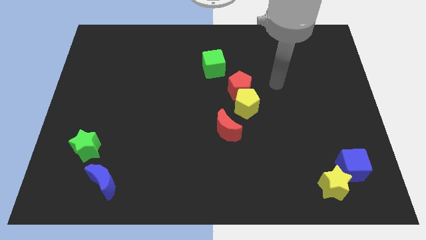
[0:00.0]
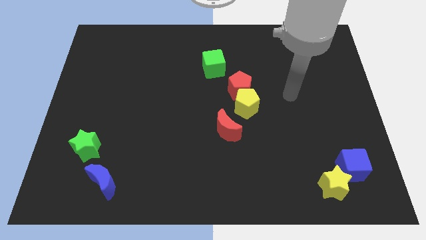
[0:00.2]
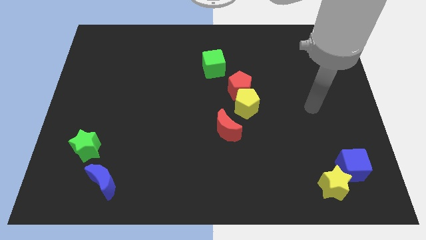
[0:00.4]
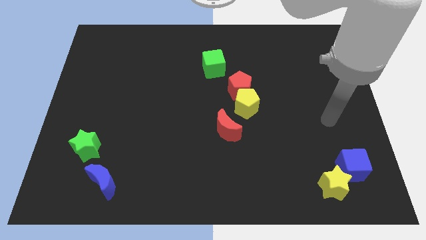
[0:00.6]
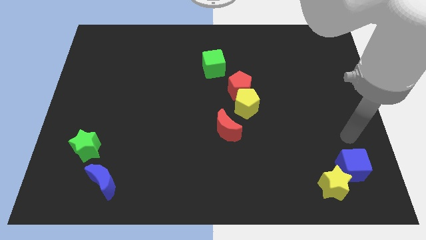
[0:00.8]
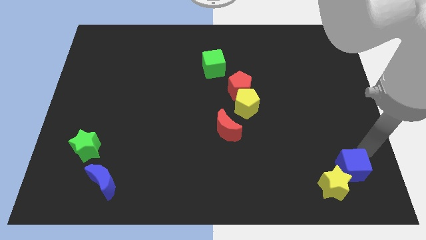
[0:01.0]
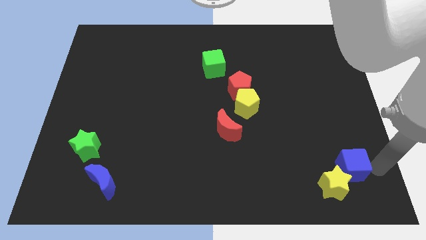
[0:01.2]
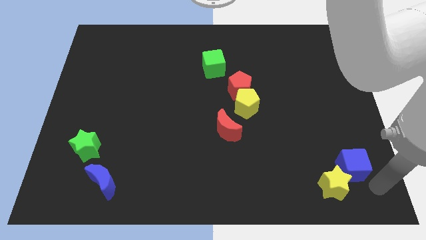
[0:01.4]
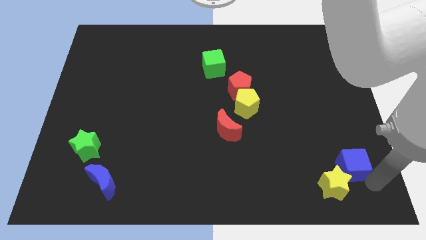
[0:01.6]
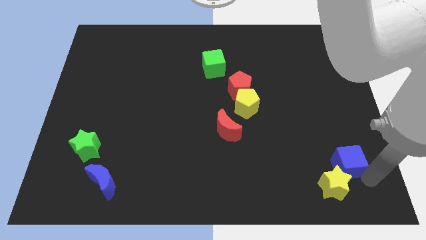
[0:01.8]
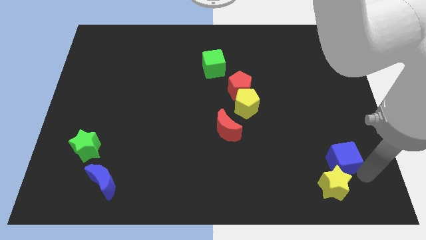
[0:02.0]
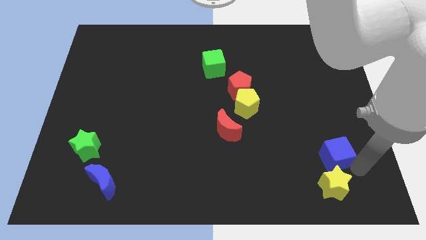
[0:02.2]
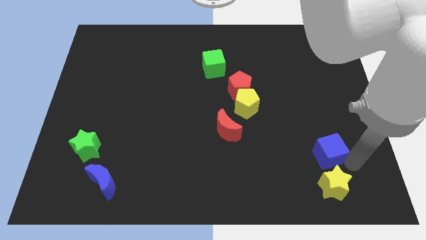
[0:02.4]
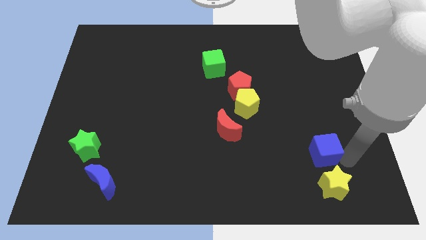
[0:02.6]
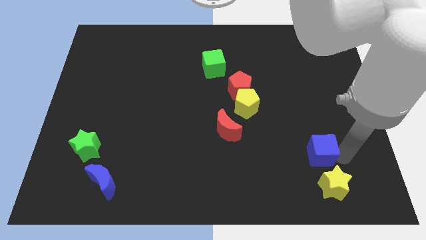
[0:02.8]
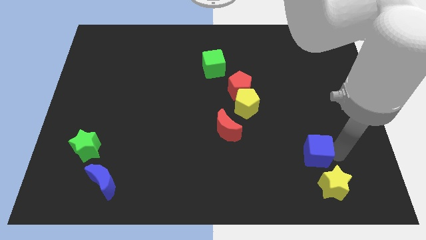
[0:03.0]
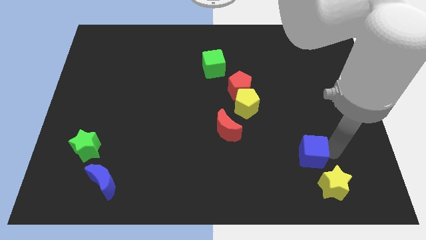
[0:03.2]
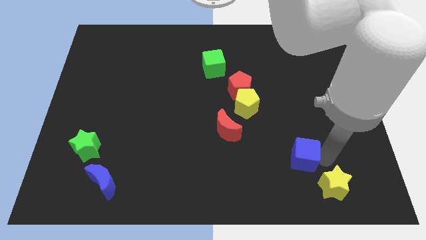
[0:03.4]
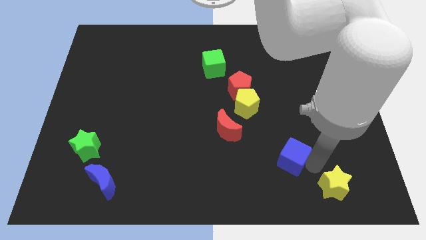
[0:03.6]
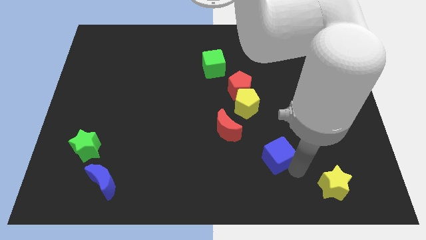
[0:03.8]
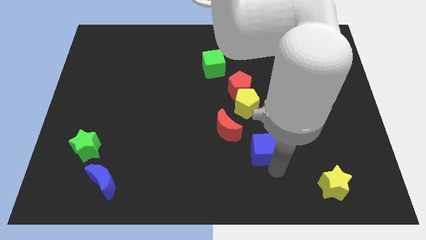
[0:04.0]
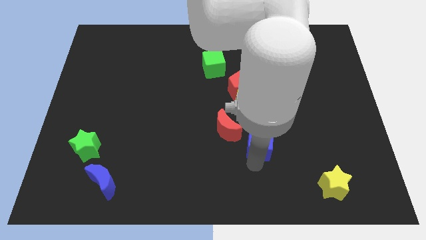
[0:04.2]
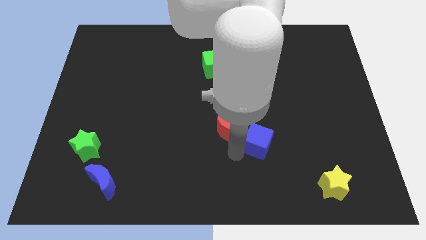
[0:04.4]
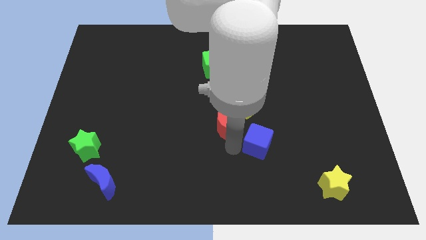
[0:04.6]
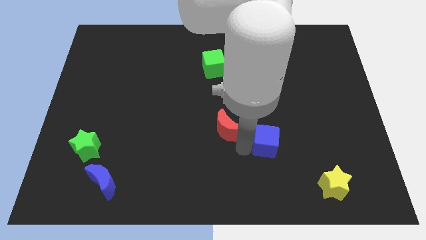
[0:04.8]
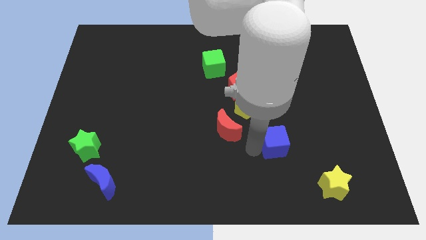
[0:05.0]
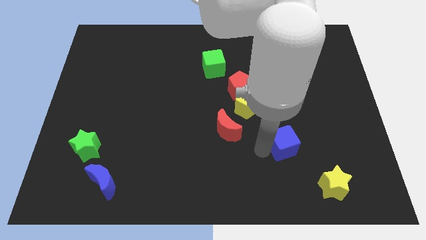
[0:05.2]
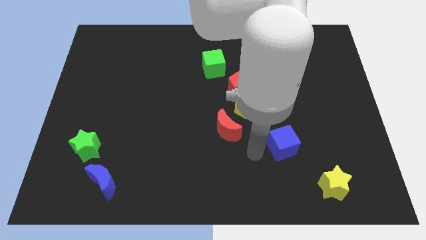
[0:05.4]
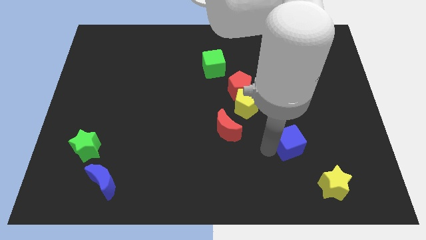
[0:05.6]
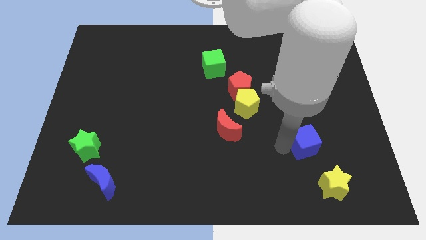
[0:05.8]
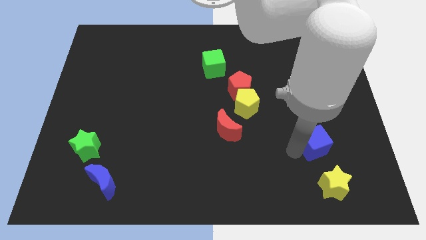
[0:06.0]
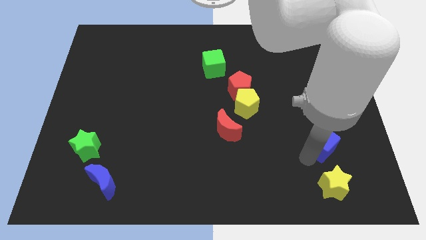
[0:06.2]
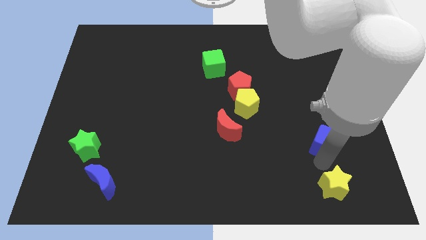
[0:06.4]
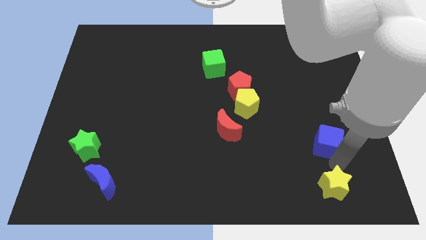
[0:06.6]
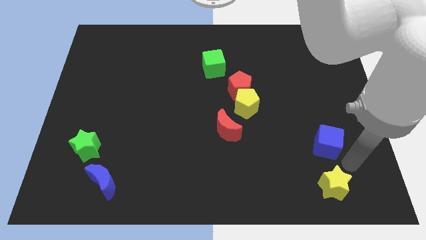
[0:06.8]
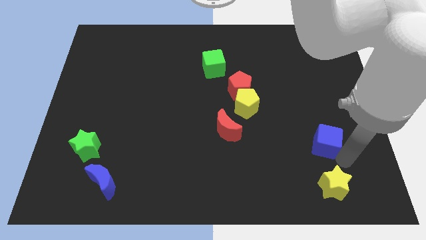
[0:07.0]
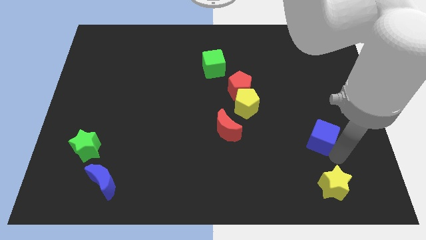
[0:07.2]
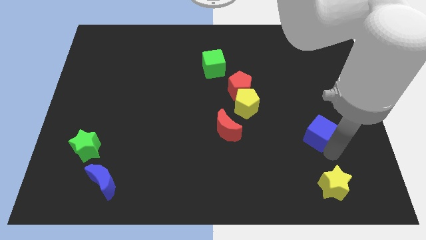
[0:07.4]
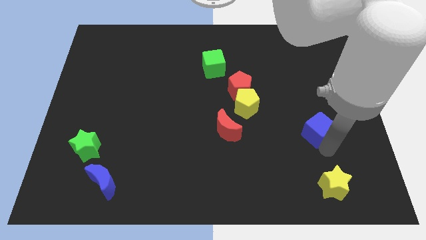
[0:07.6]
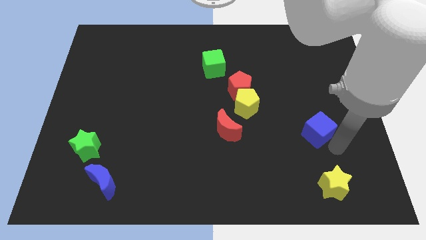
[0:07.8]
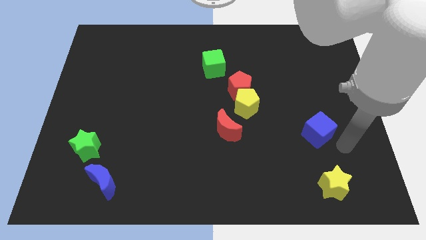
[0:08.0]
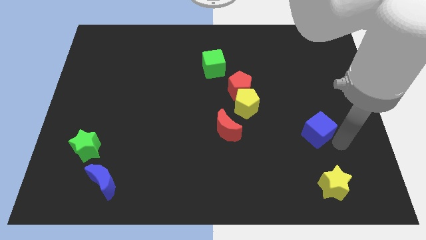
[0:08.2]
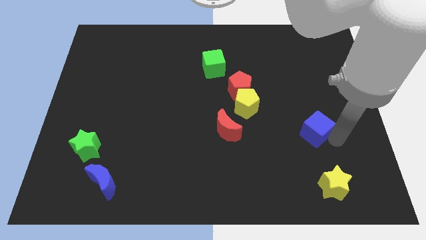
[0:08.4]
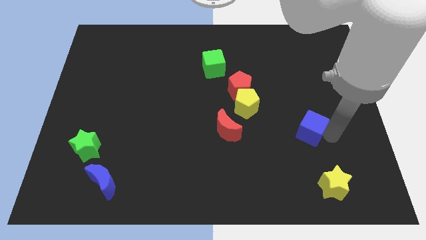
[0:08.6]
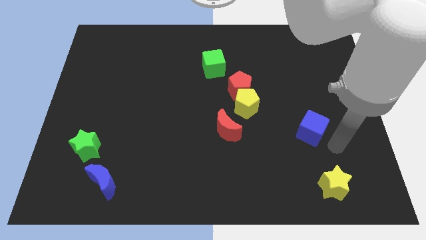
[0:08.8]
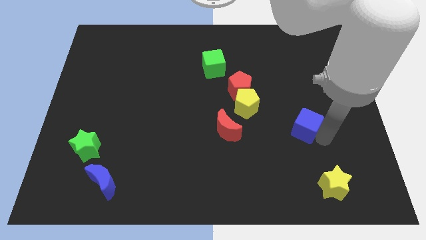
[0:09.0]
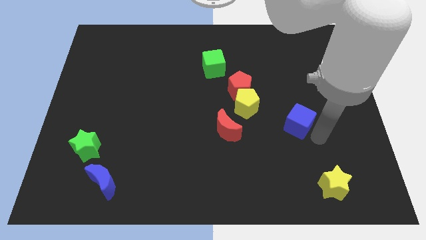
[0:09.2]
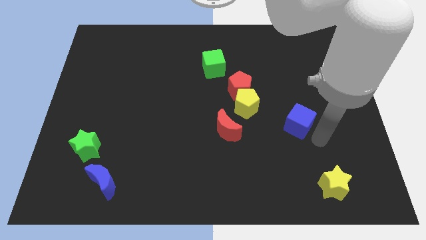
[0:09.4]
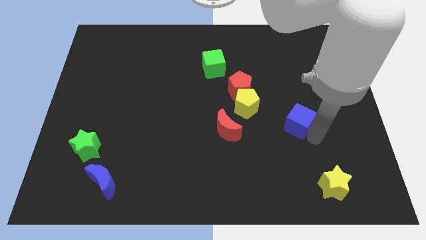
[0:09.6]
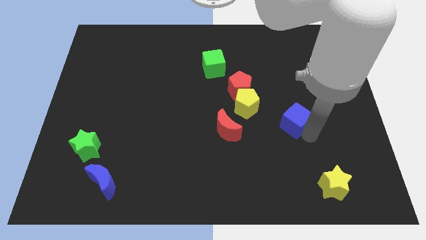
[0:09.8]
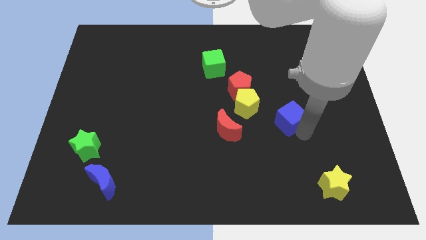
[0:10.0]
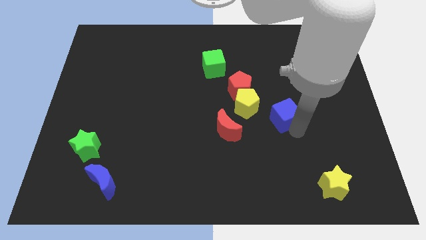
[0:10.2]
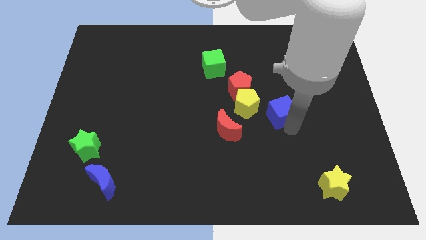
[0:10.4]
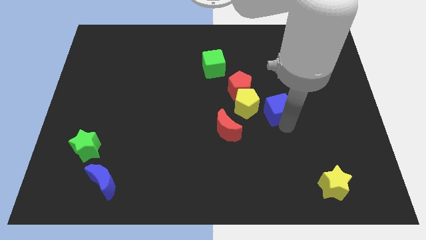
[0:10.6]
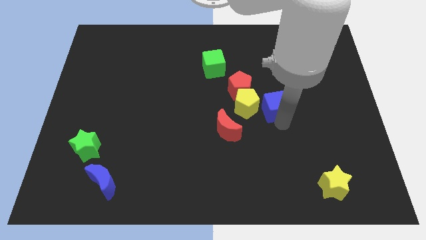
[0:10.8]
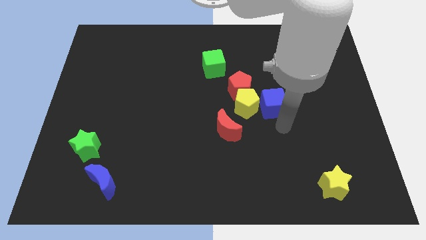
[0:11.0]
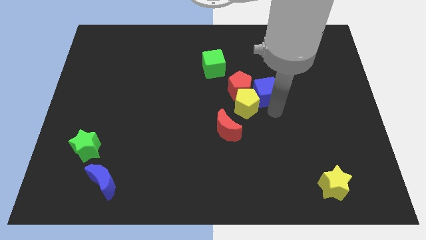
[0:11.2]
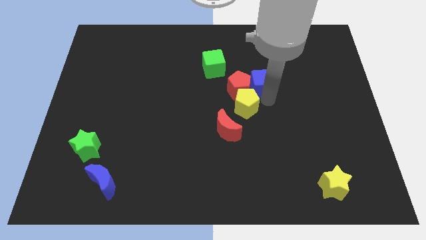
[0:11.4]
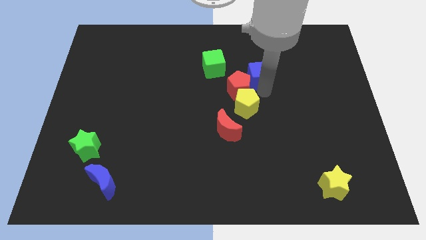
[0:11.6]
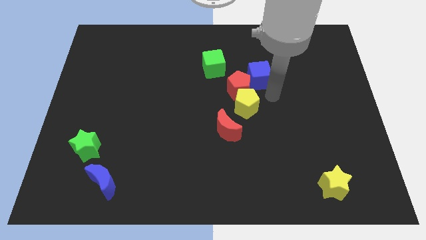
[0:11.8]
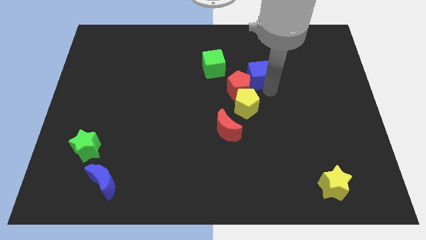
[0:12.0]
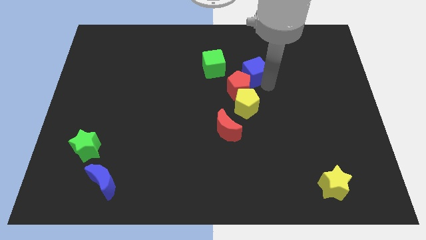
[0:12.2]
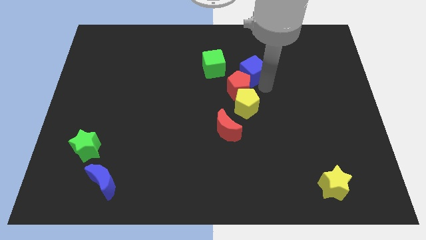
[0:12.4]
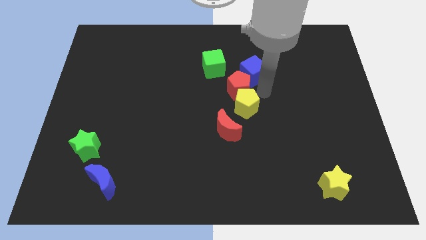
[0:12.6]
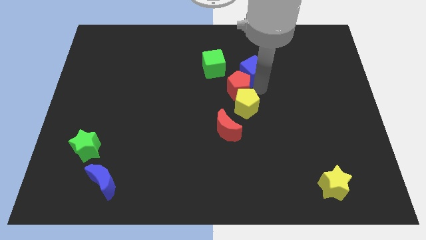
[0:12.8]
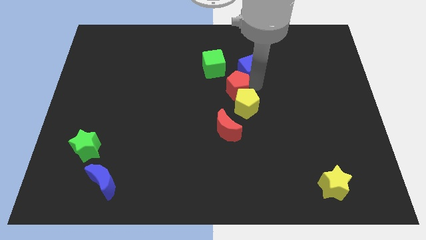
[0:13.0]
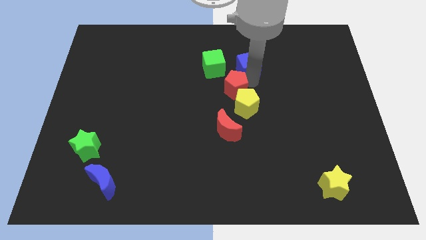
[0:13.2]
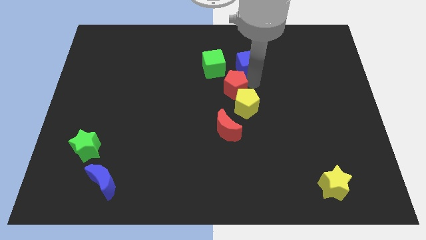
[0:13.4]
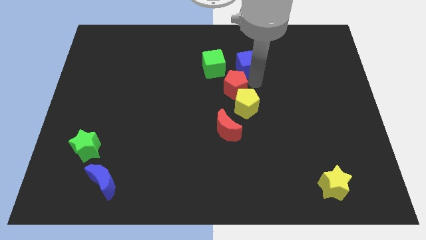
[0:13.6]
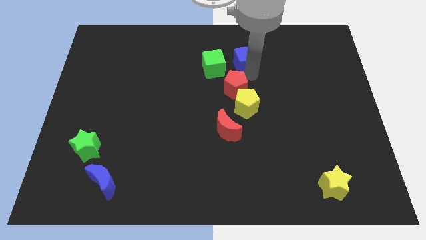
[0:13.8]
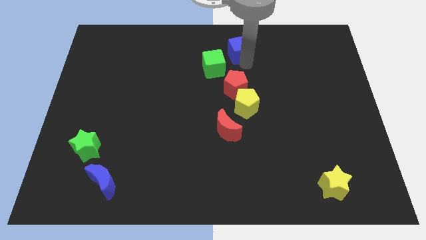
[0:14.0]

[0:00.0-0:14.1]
put the blue cube to the towards your base
